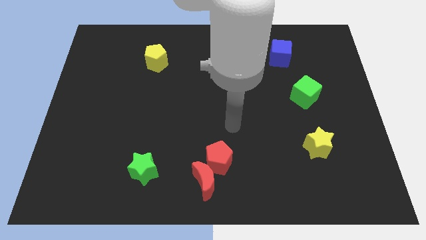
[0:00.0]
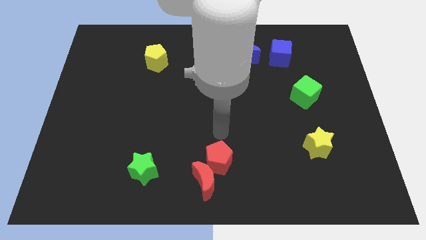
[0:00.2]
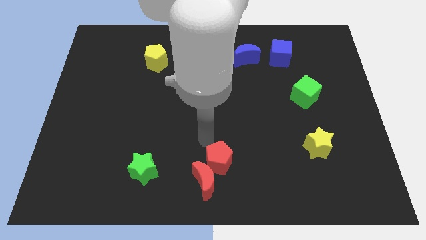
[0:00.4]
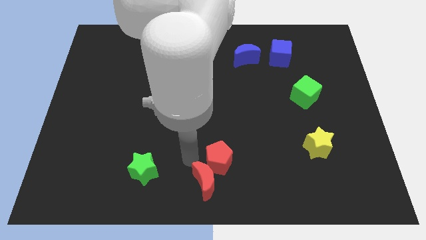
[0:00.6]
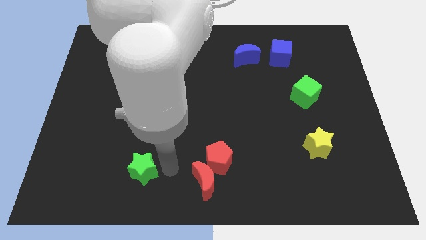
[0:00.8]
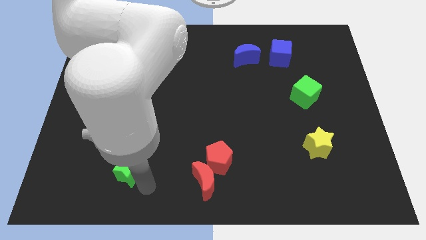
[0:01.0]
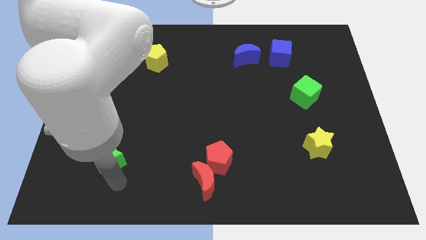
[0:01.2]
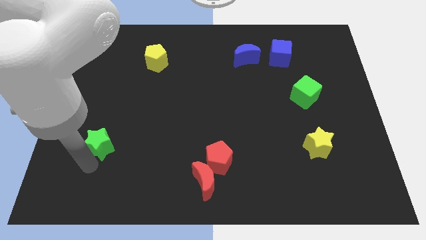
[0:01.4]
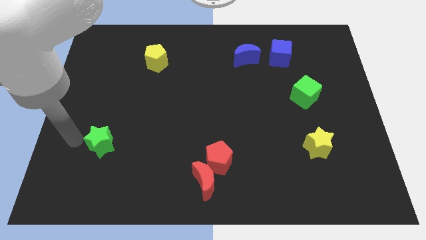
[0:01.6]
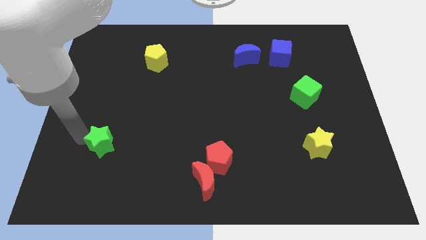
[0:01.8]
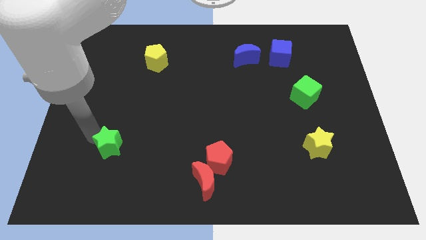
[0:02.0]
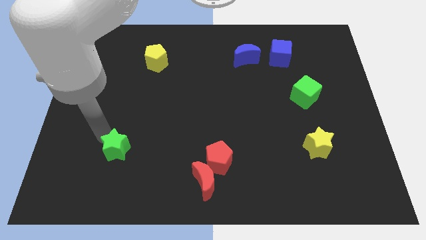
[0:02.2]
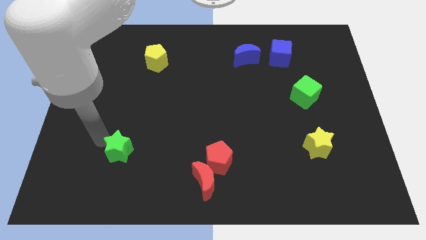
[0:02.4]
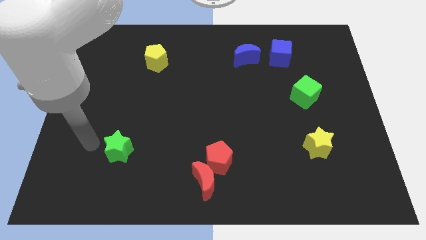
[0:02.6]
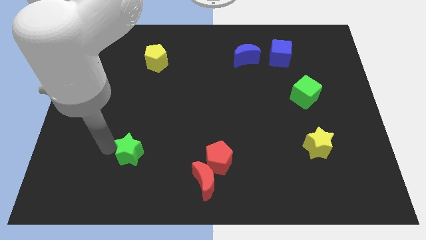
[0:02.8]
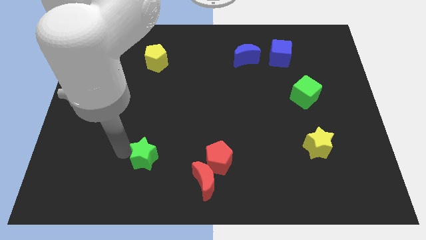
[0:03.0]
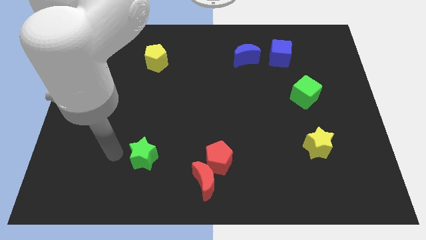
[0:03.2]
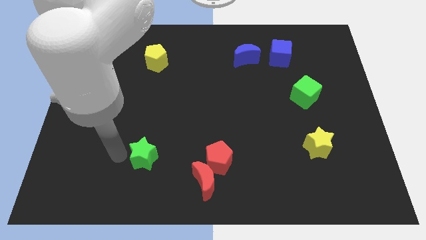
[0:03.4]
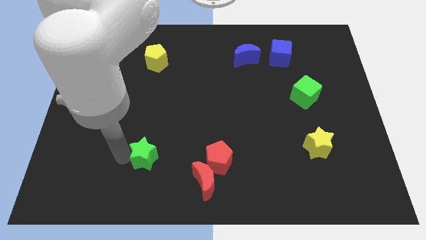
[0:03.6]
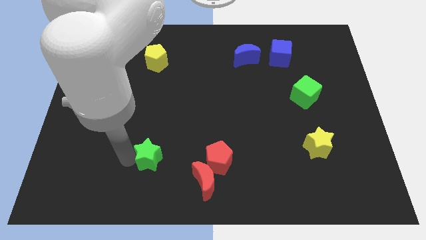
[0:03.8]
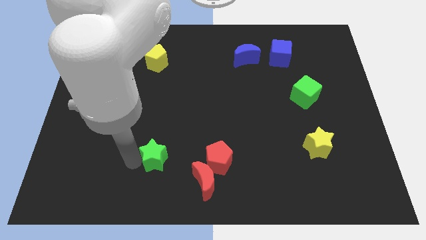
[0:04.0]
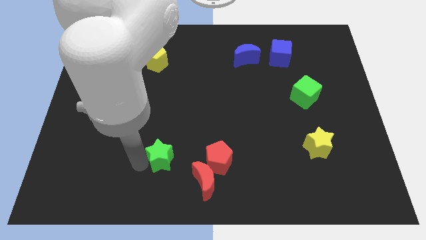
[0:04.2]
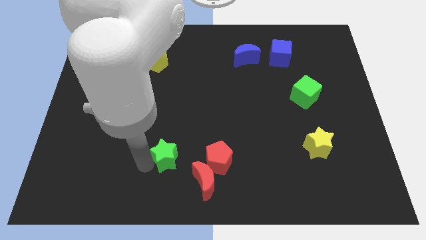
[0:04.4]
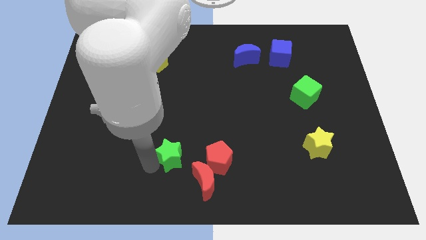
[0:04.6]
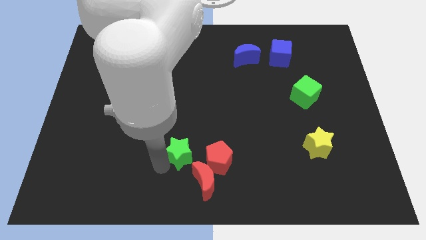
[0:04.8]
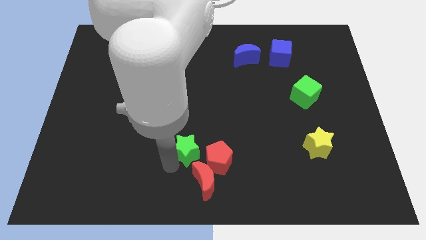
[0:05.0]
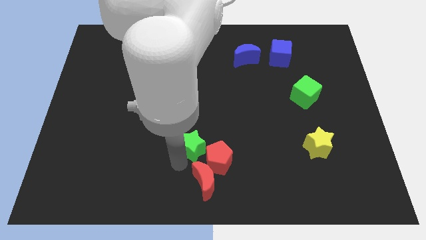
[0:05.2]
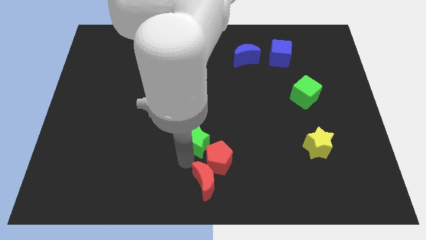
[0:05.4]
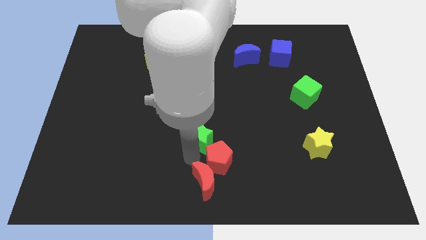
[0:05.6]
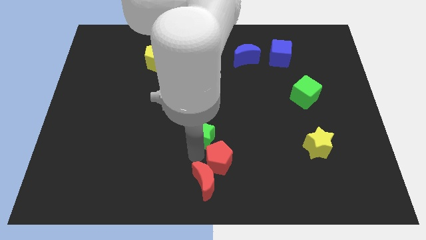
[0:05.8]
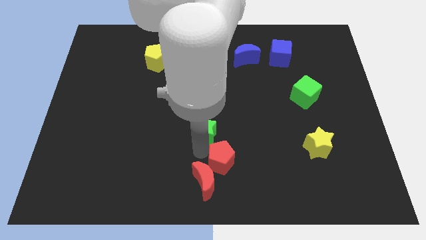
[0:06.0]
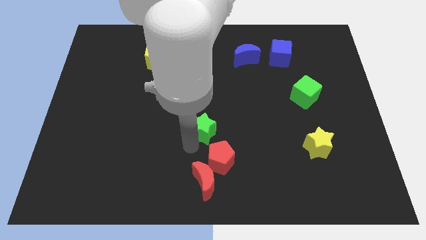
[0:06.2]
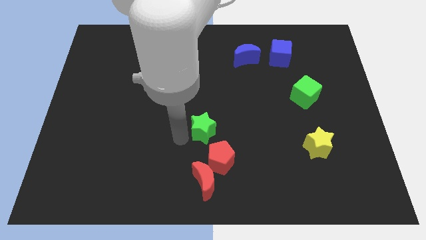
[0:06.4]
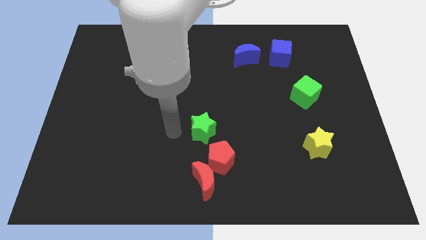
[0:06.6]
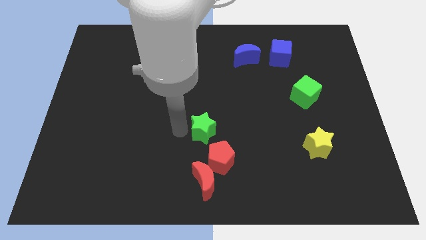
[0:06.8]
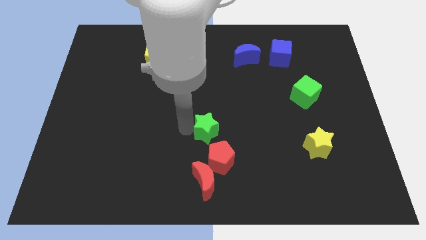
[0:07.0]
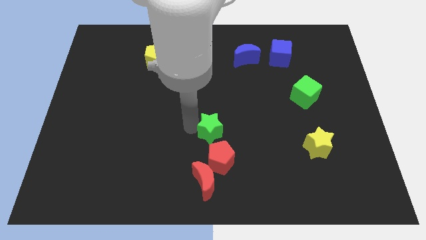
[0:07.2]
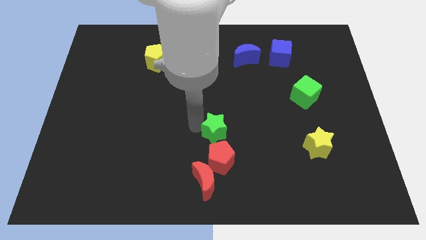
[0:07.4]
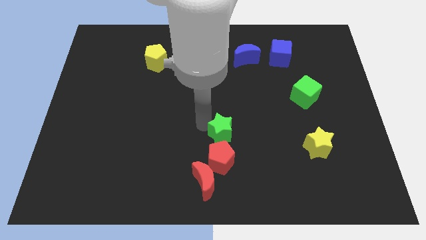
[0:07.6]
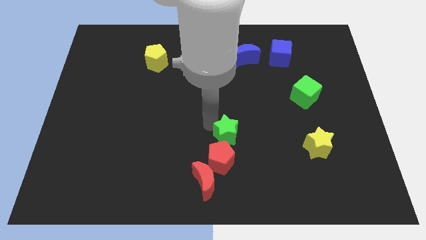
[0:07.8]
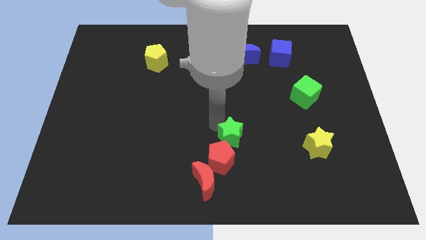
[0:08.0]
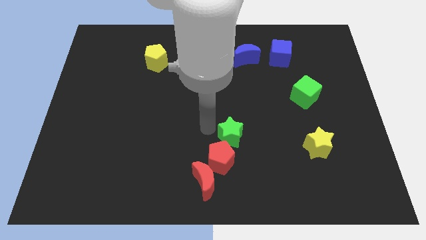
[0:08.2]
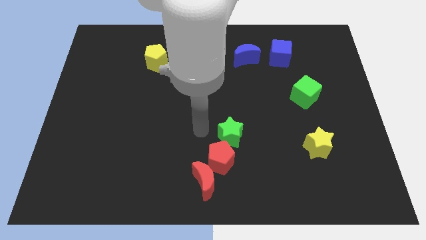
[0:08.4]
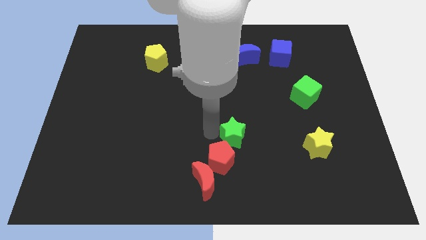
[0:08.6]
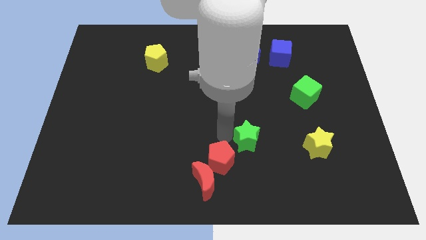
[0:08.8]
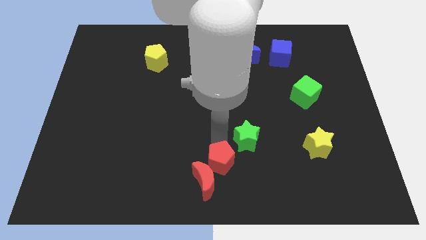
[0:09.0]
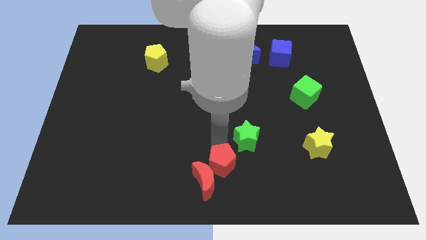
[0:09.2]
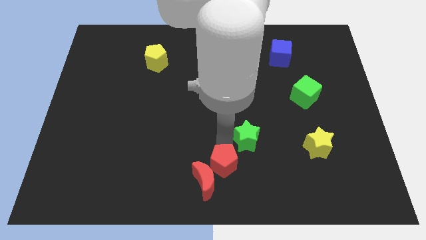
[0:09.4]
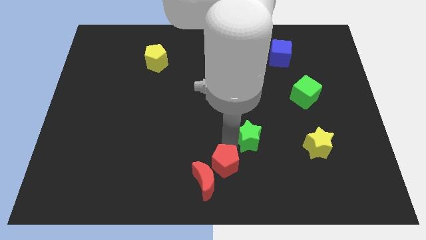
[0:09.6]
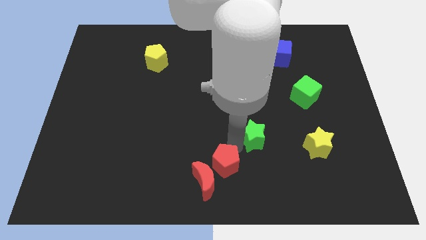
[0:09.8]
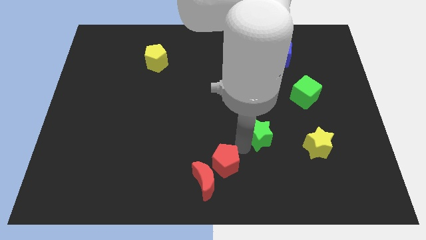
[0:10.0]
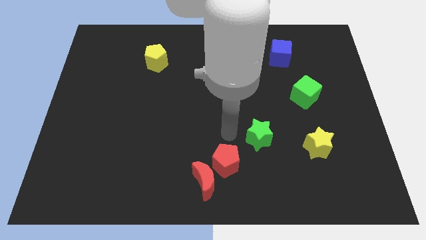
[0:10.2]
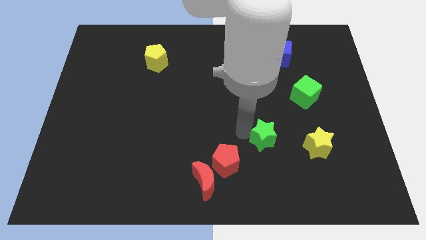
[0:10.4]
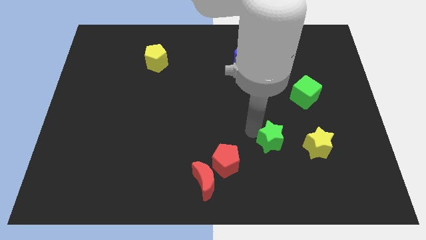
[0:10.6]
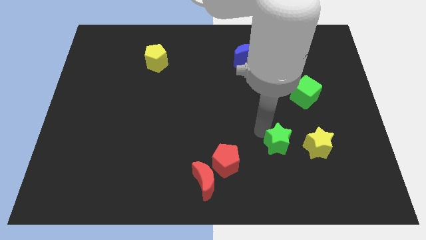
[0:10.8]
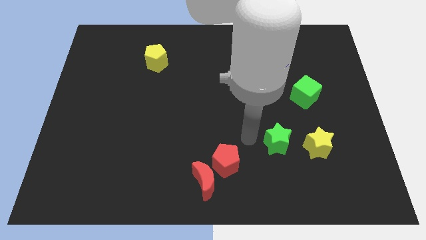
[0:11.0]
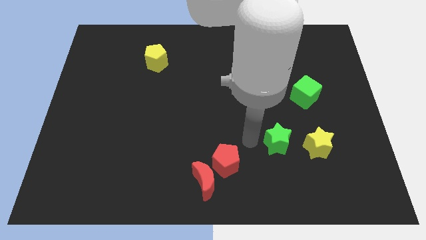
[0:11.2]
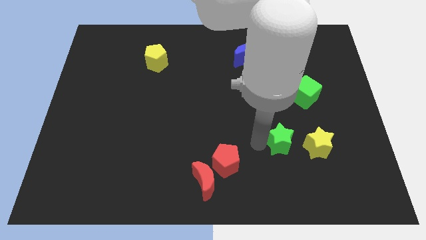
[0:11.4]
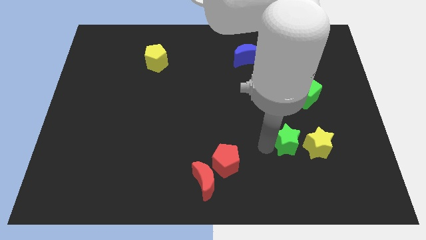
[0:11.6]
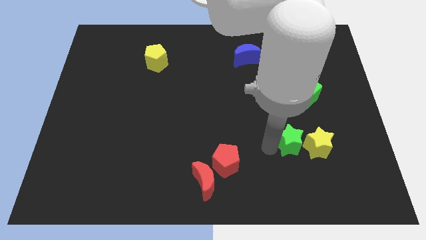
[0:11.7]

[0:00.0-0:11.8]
slide the green star to the yellow star

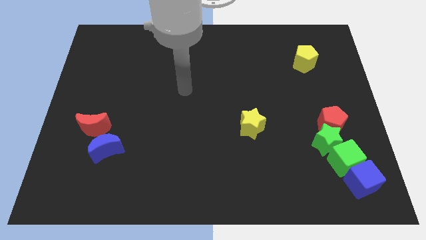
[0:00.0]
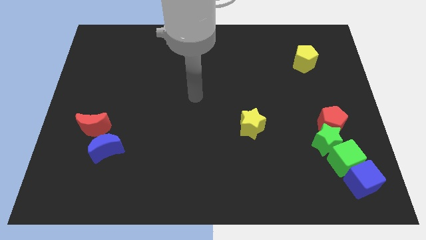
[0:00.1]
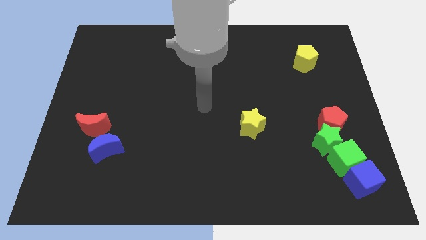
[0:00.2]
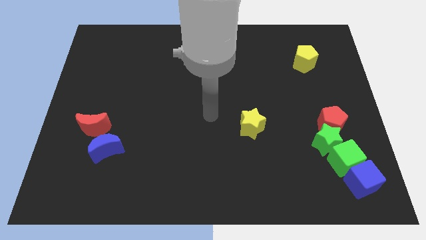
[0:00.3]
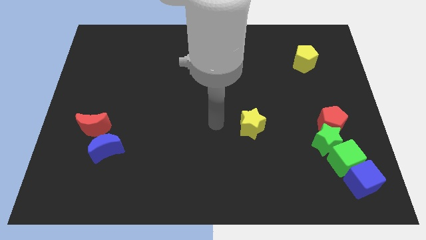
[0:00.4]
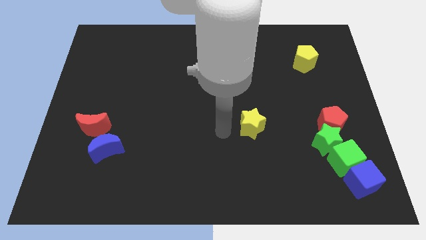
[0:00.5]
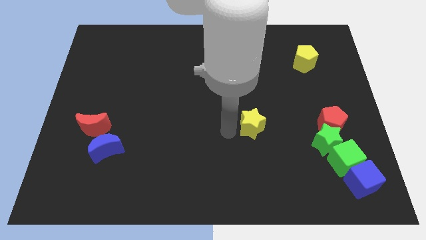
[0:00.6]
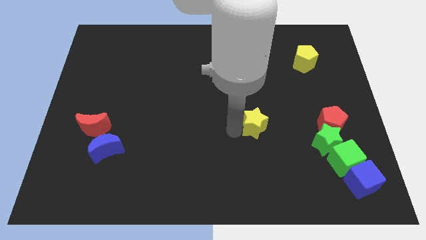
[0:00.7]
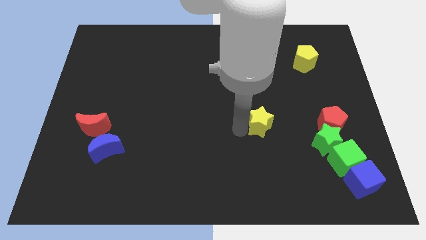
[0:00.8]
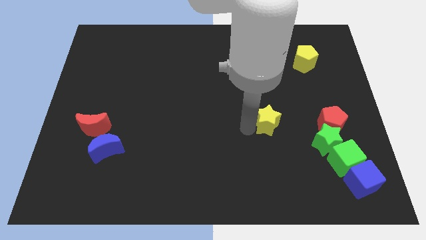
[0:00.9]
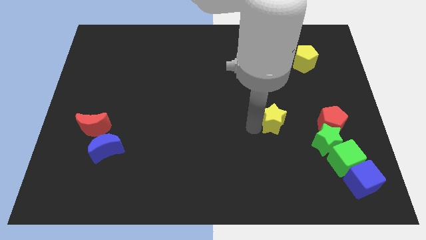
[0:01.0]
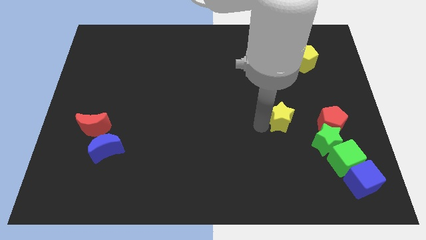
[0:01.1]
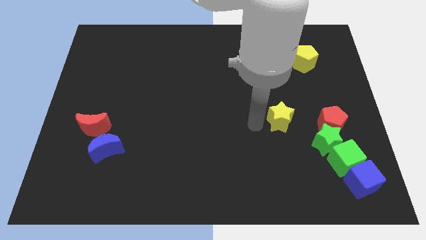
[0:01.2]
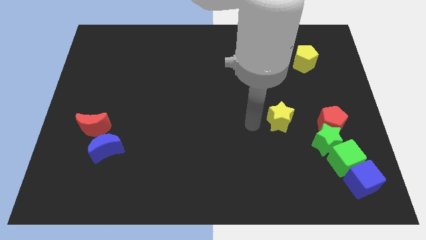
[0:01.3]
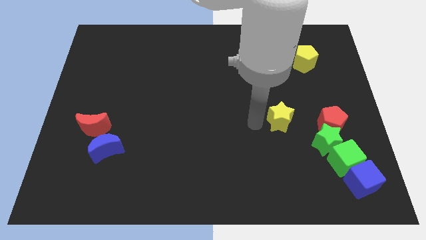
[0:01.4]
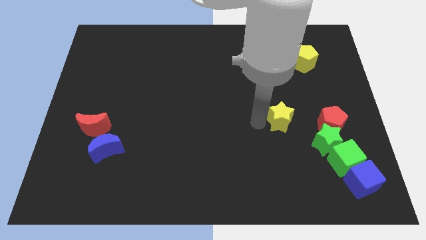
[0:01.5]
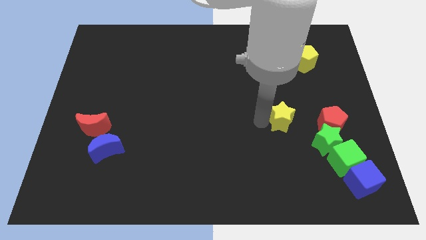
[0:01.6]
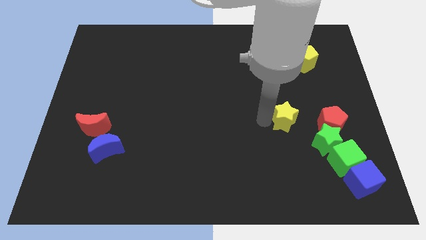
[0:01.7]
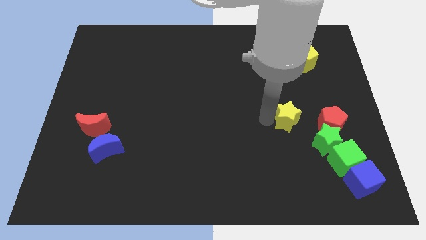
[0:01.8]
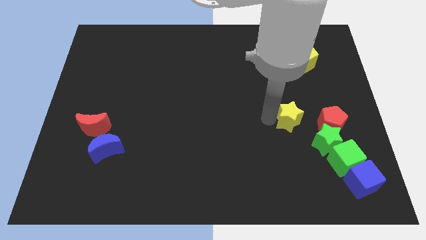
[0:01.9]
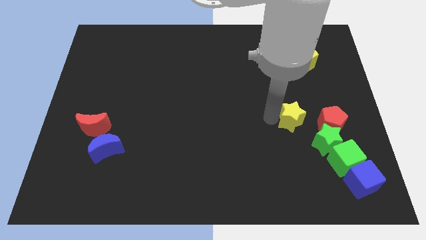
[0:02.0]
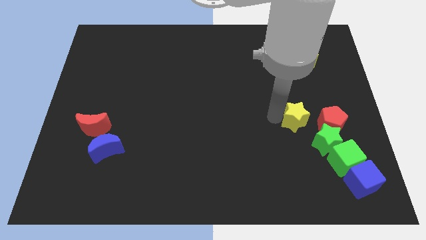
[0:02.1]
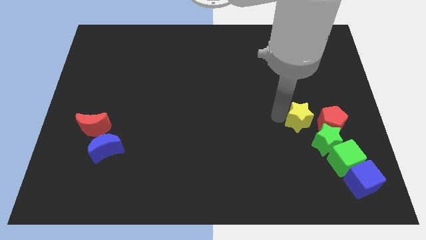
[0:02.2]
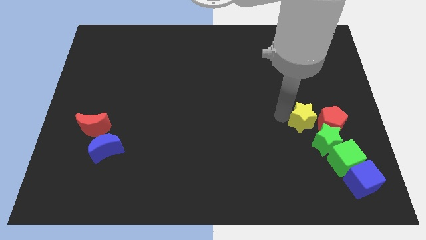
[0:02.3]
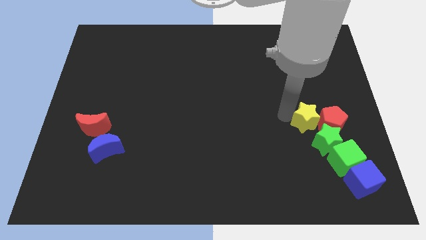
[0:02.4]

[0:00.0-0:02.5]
push the yellow star towards the red pentagon
